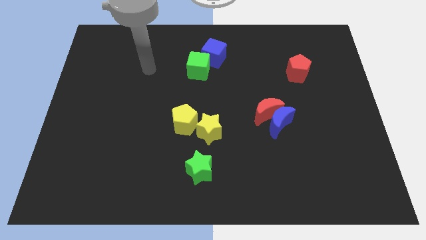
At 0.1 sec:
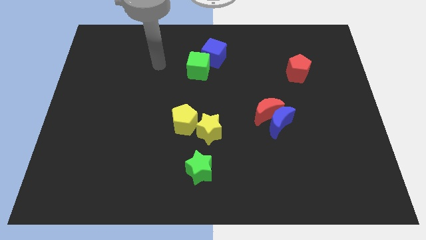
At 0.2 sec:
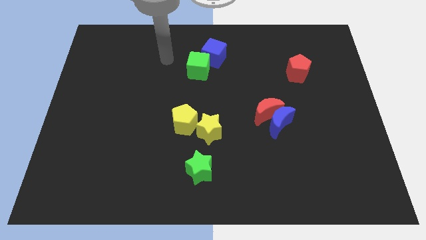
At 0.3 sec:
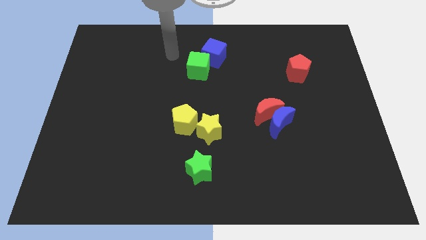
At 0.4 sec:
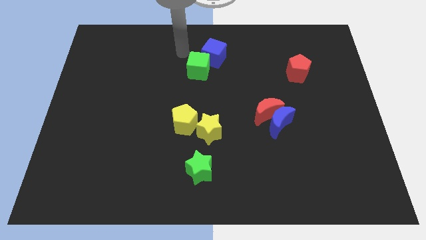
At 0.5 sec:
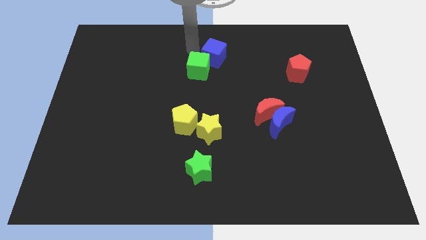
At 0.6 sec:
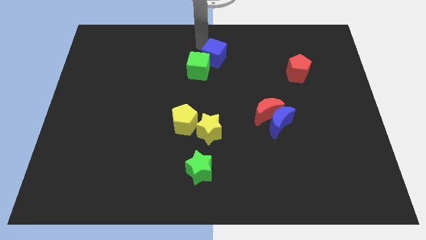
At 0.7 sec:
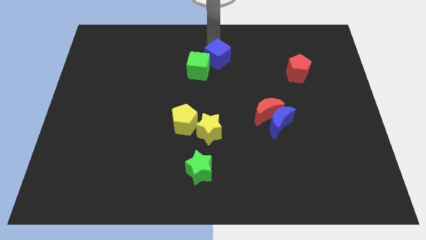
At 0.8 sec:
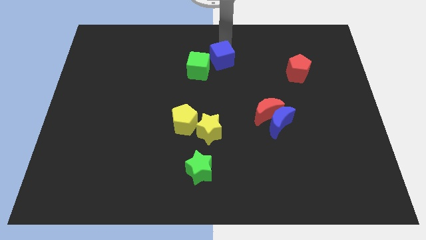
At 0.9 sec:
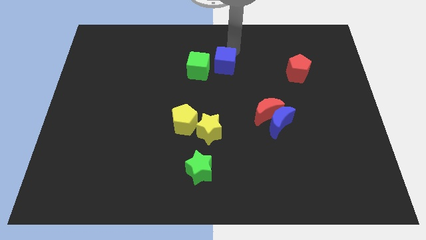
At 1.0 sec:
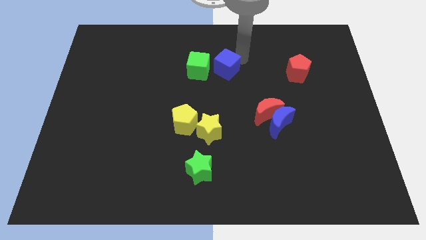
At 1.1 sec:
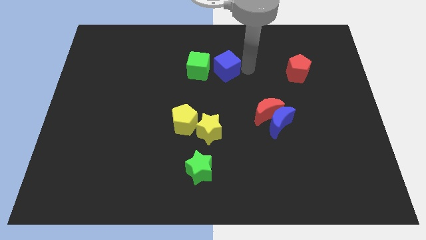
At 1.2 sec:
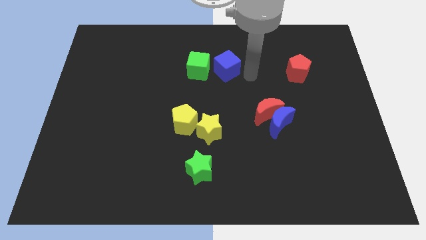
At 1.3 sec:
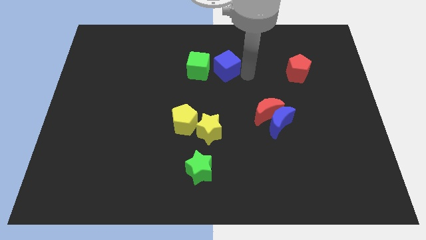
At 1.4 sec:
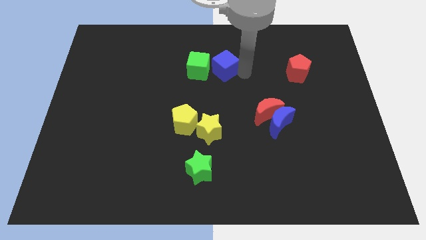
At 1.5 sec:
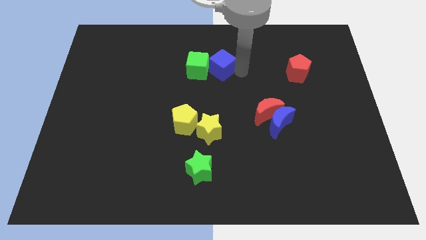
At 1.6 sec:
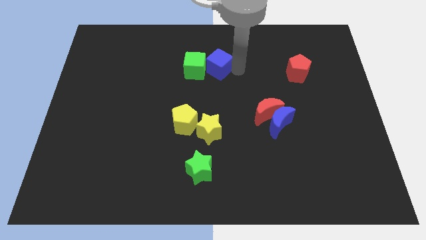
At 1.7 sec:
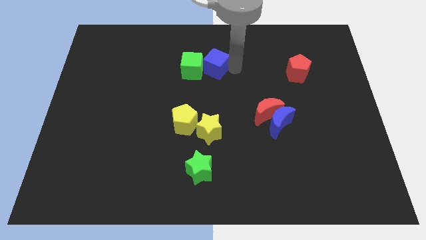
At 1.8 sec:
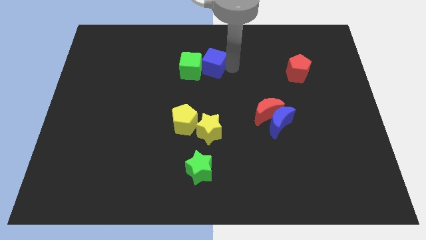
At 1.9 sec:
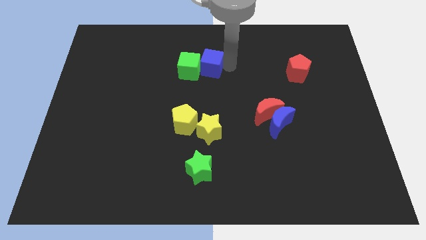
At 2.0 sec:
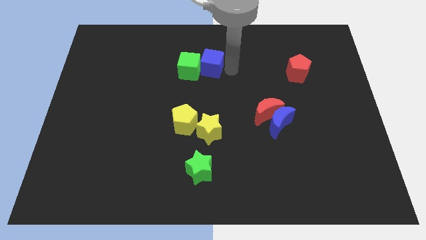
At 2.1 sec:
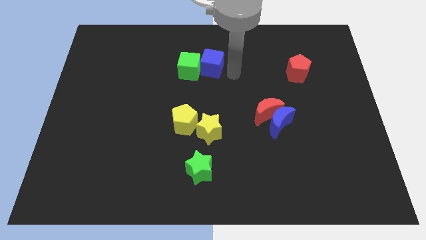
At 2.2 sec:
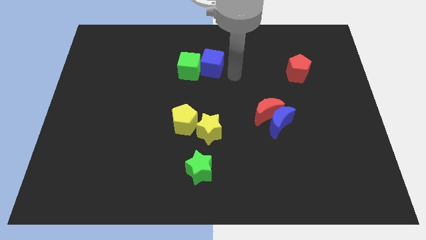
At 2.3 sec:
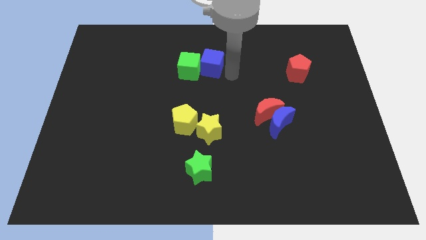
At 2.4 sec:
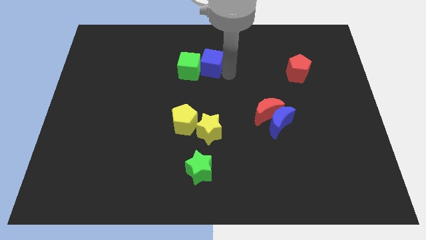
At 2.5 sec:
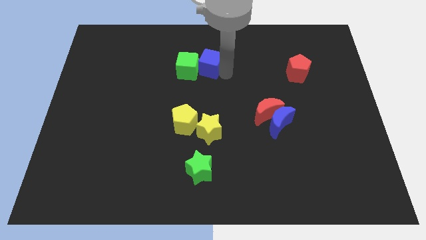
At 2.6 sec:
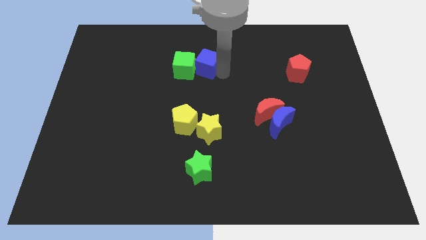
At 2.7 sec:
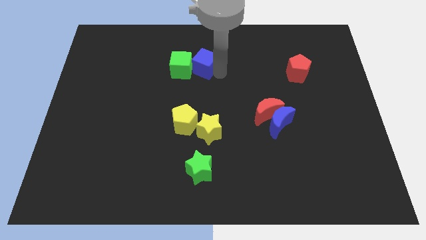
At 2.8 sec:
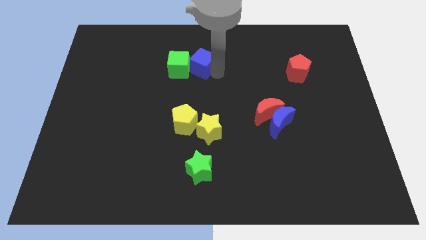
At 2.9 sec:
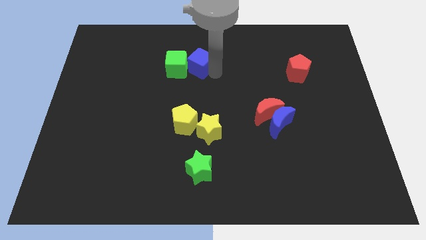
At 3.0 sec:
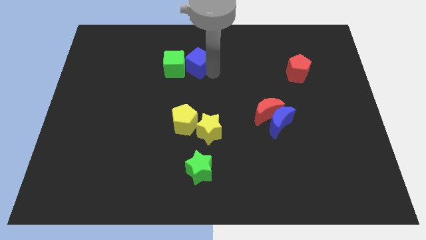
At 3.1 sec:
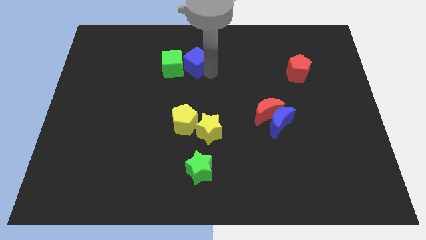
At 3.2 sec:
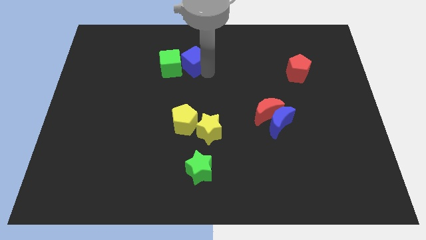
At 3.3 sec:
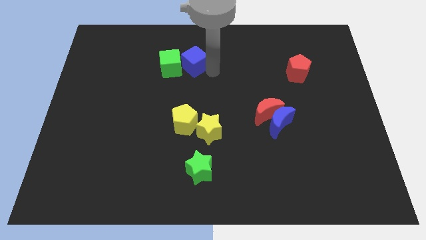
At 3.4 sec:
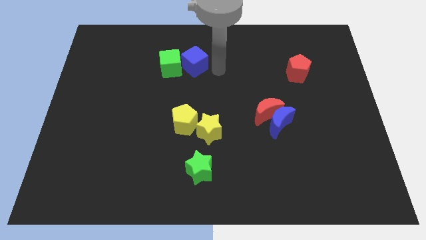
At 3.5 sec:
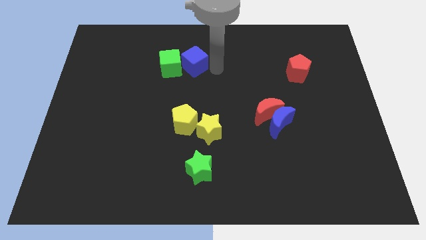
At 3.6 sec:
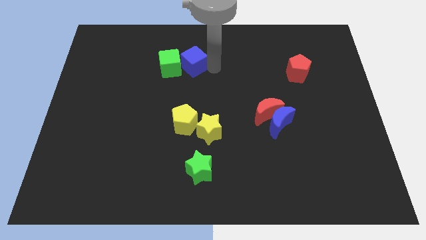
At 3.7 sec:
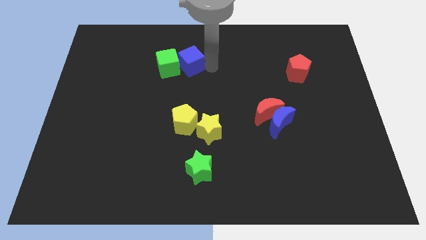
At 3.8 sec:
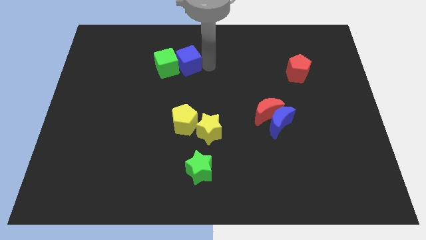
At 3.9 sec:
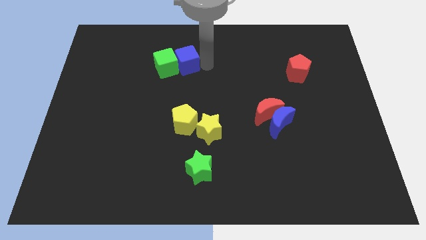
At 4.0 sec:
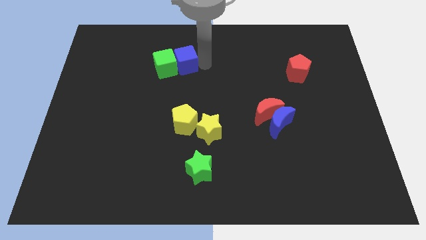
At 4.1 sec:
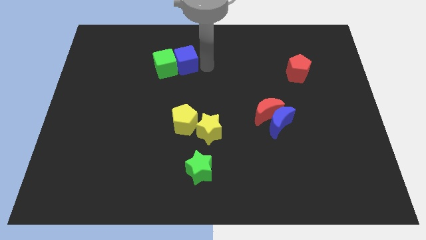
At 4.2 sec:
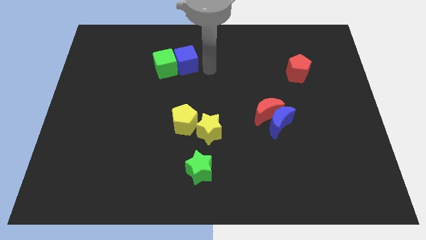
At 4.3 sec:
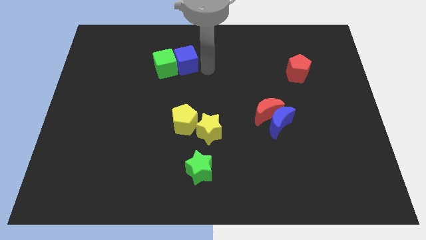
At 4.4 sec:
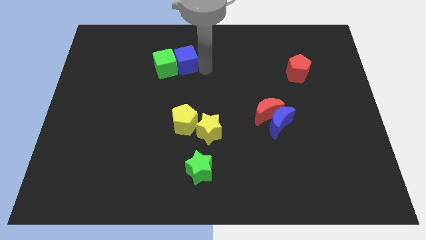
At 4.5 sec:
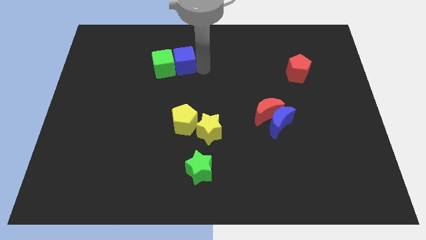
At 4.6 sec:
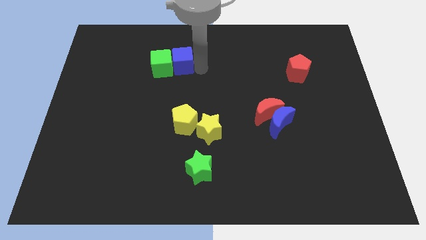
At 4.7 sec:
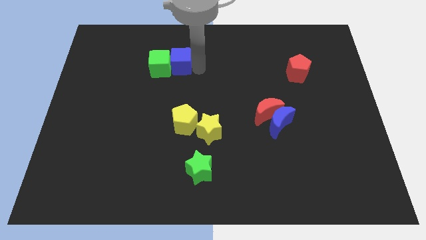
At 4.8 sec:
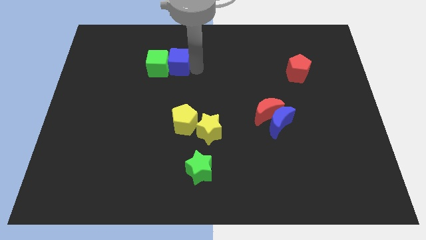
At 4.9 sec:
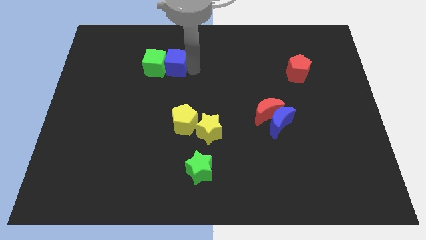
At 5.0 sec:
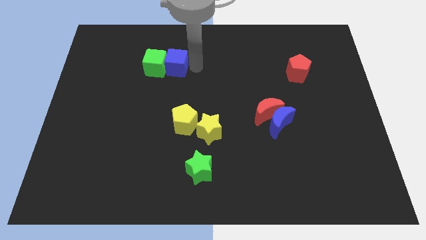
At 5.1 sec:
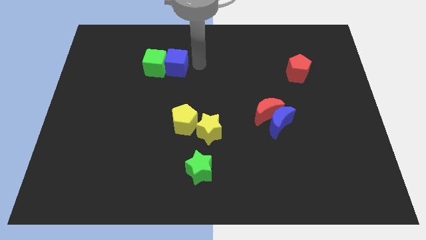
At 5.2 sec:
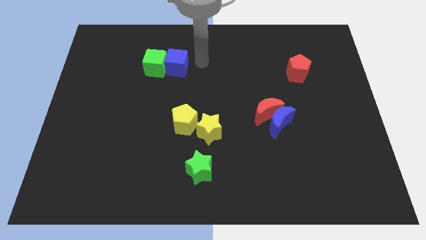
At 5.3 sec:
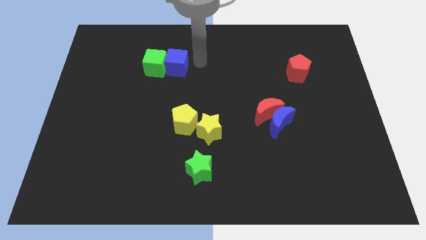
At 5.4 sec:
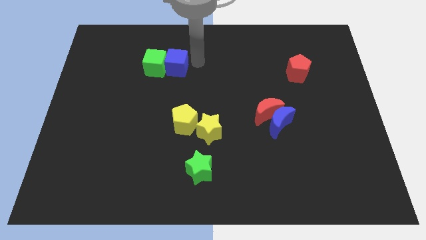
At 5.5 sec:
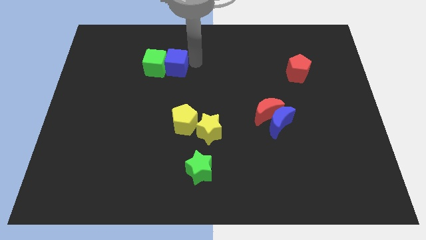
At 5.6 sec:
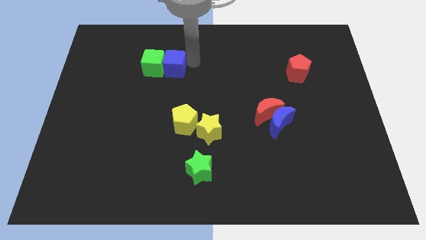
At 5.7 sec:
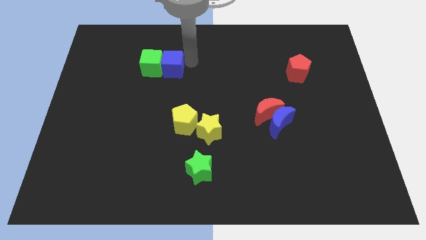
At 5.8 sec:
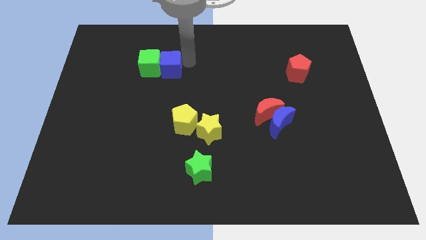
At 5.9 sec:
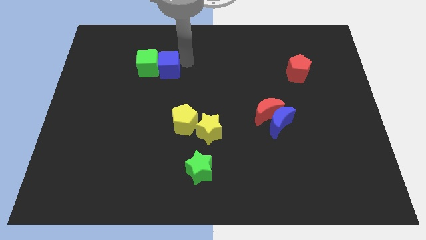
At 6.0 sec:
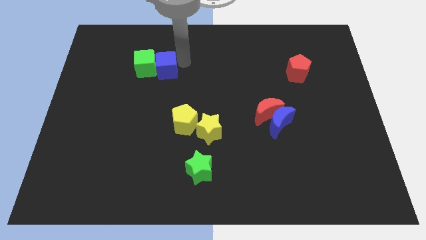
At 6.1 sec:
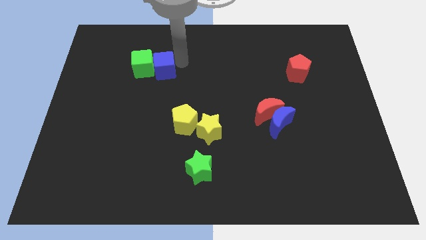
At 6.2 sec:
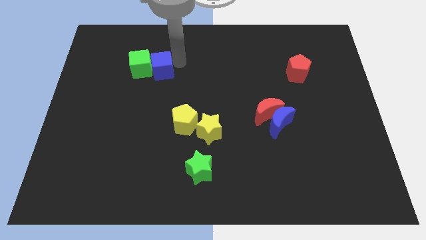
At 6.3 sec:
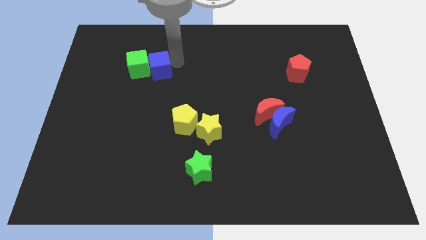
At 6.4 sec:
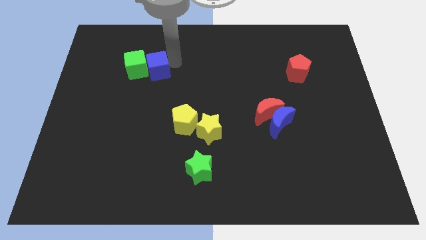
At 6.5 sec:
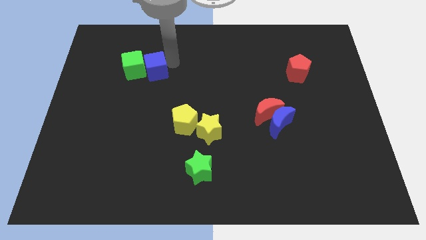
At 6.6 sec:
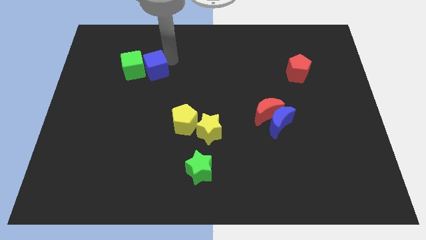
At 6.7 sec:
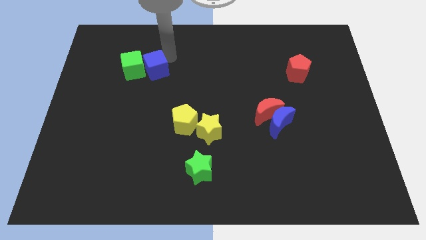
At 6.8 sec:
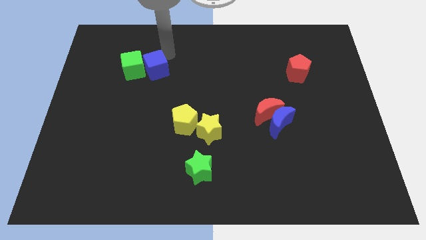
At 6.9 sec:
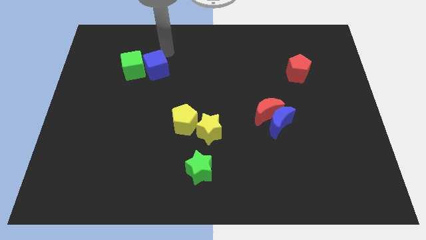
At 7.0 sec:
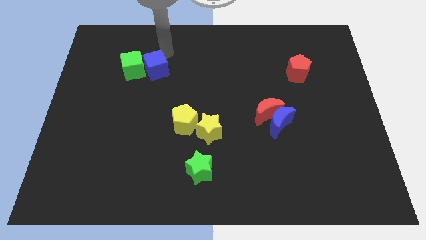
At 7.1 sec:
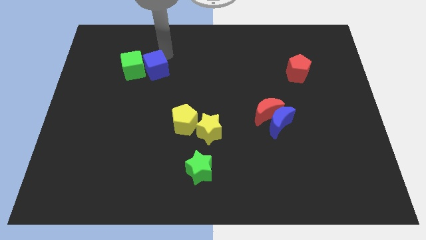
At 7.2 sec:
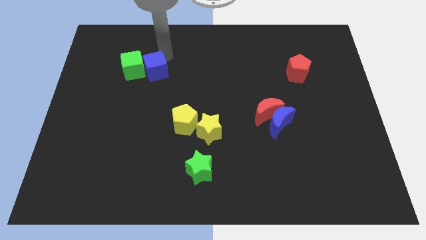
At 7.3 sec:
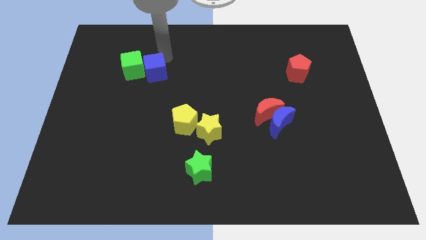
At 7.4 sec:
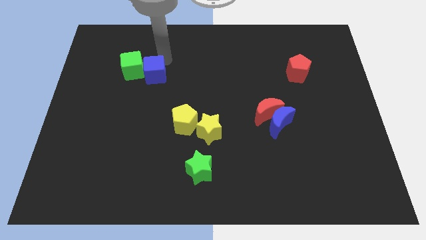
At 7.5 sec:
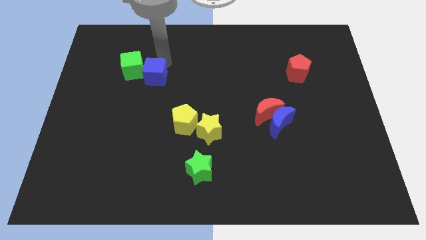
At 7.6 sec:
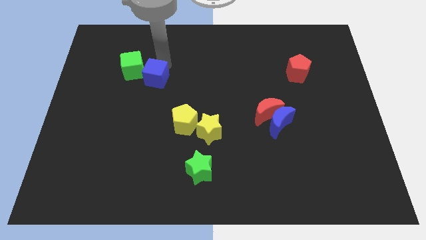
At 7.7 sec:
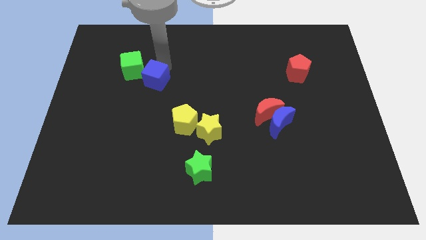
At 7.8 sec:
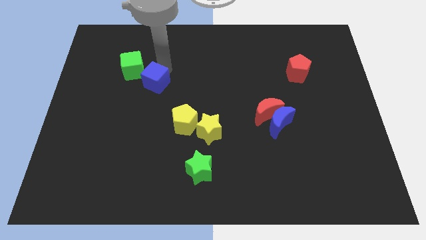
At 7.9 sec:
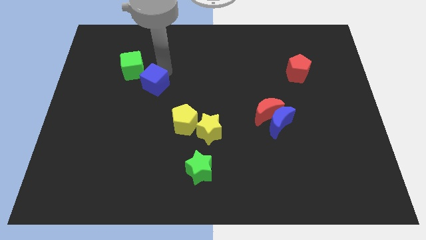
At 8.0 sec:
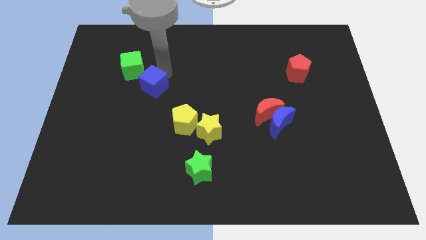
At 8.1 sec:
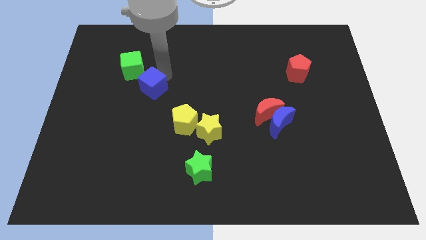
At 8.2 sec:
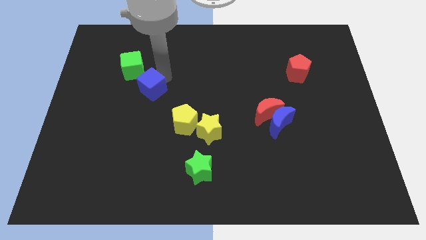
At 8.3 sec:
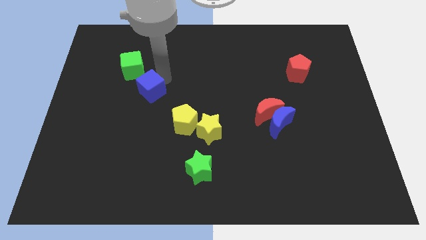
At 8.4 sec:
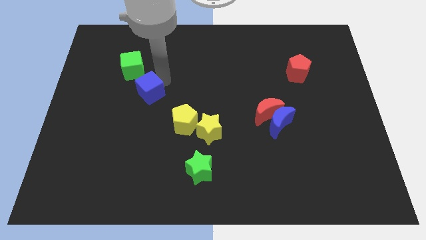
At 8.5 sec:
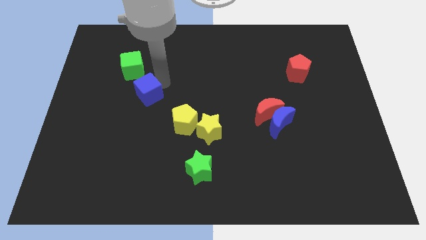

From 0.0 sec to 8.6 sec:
move the blue cube down and then left
